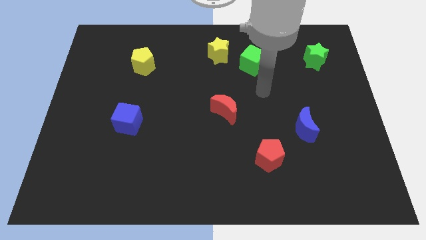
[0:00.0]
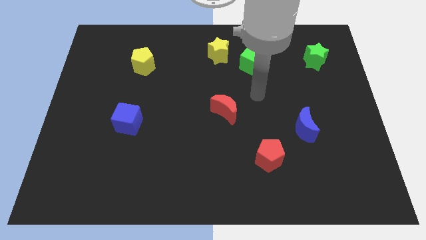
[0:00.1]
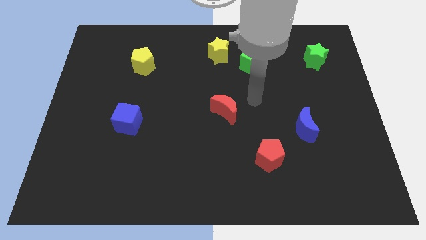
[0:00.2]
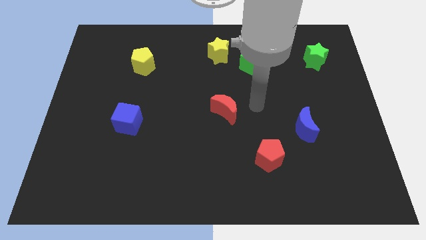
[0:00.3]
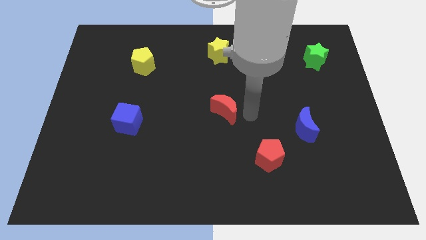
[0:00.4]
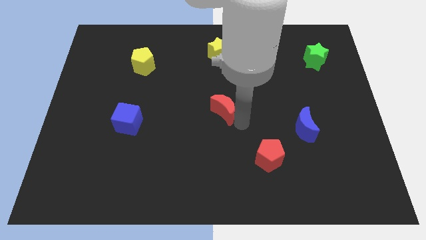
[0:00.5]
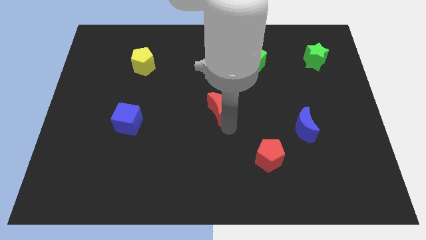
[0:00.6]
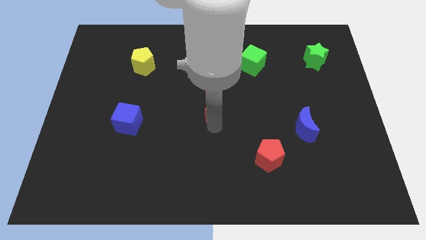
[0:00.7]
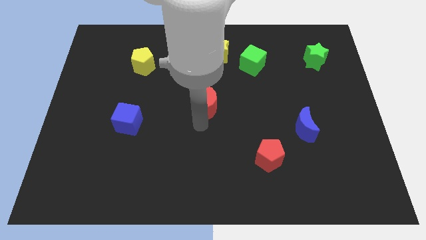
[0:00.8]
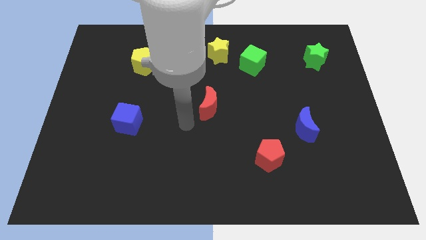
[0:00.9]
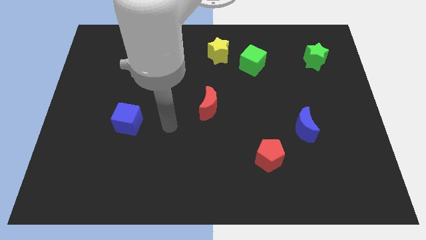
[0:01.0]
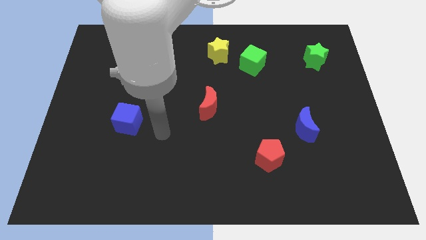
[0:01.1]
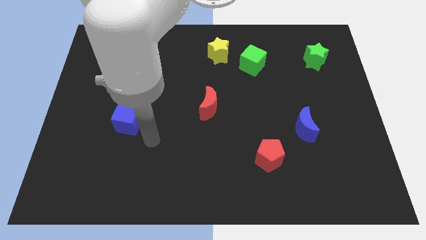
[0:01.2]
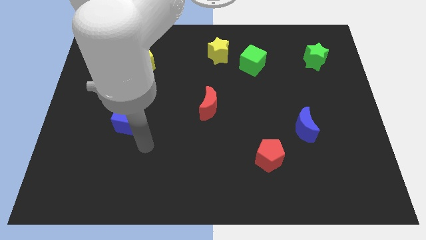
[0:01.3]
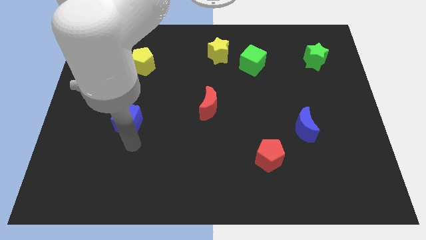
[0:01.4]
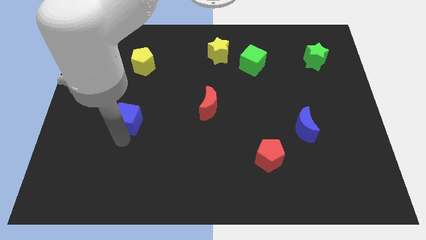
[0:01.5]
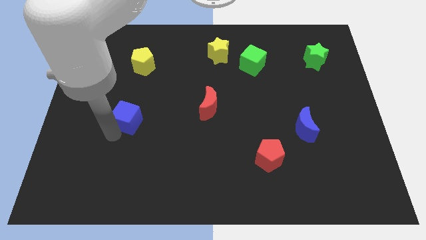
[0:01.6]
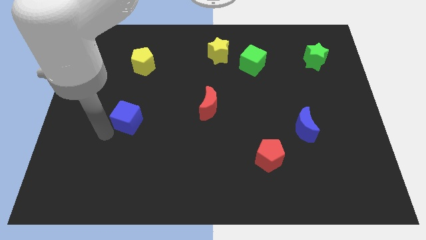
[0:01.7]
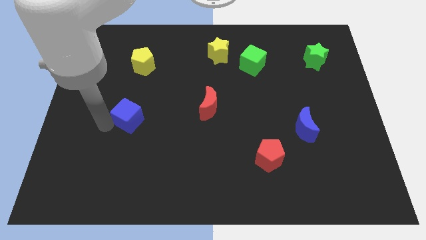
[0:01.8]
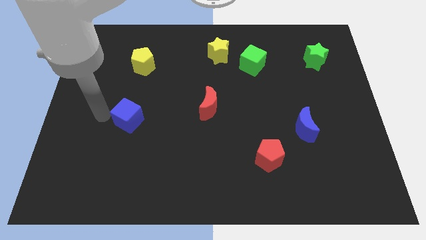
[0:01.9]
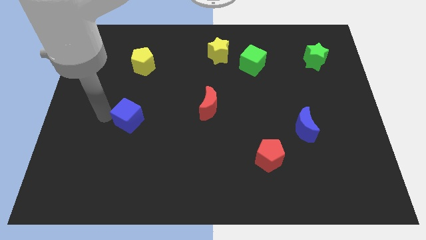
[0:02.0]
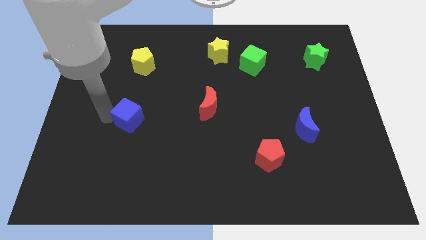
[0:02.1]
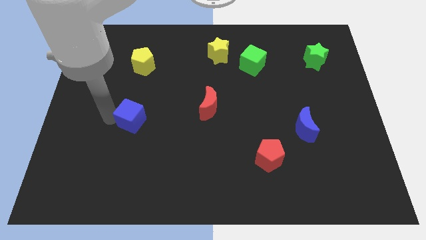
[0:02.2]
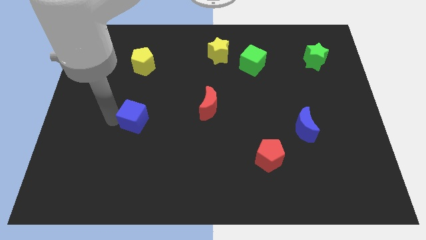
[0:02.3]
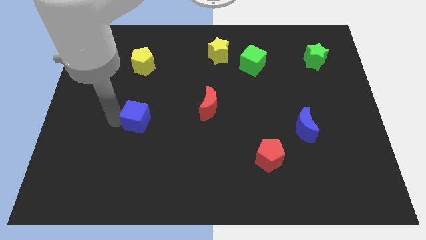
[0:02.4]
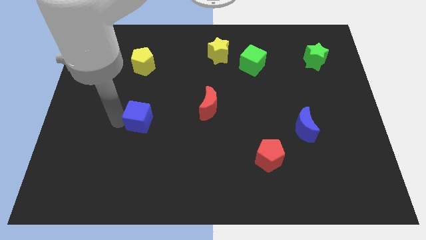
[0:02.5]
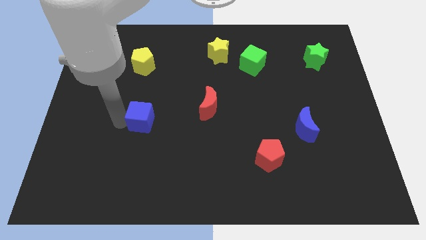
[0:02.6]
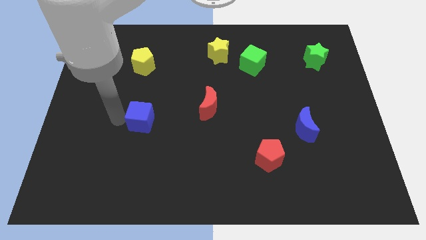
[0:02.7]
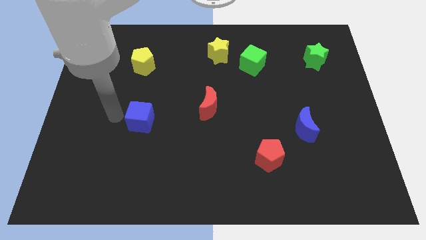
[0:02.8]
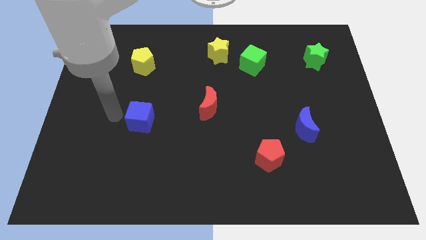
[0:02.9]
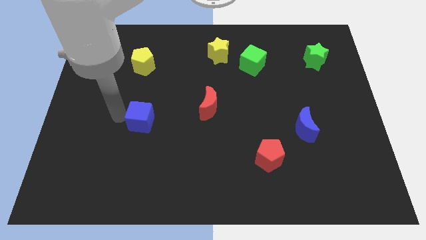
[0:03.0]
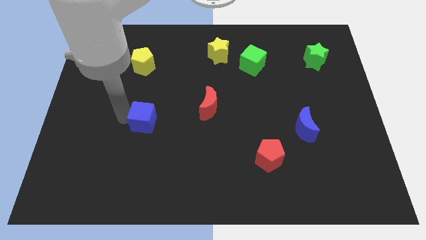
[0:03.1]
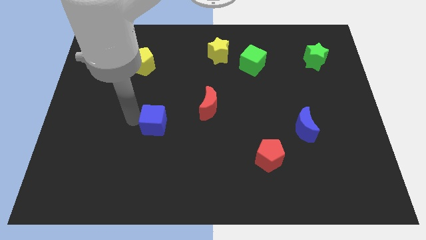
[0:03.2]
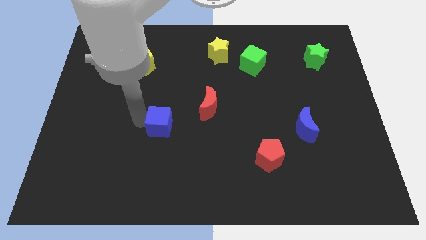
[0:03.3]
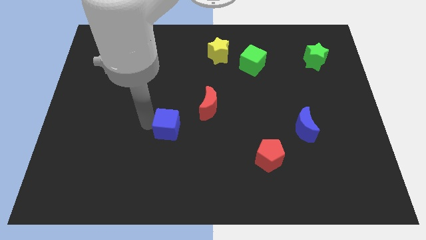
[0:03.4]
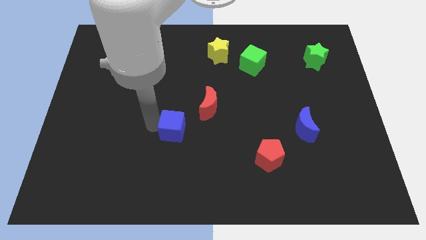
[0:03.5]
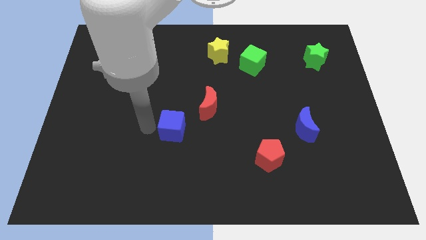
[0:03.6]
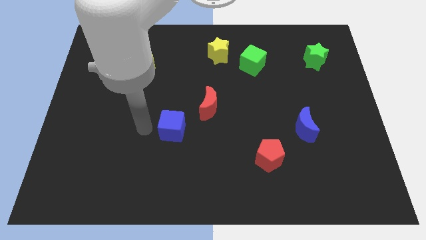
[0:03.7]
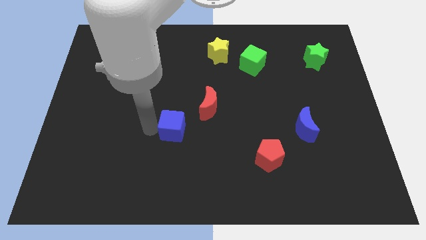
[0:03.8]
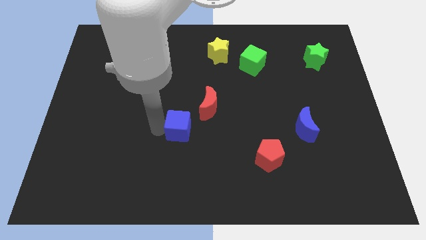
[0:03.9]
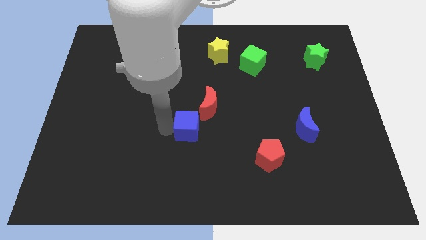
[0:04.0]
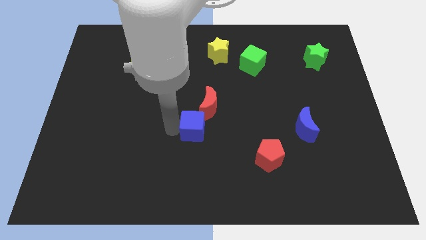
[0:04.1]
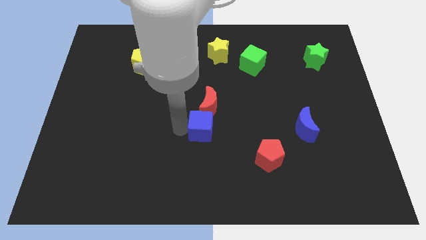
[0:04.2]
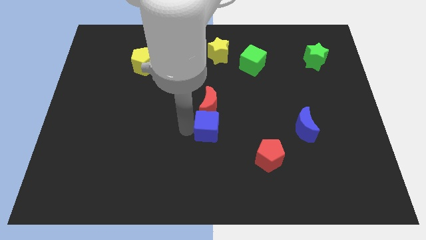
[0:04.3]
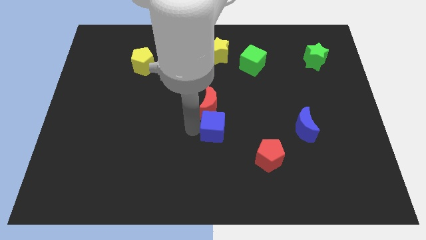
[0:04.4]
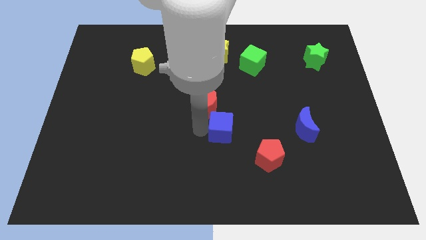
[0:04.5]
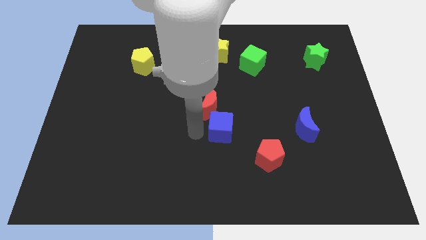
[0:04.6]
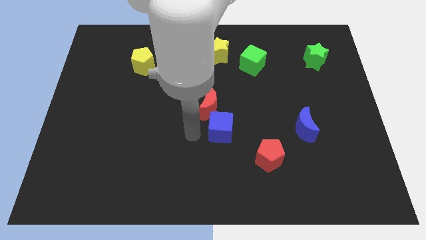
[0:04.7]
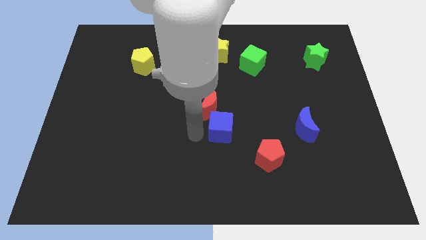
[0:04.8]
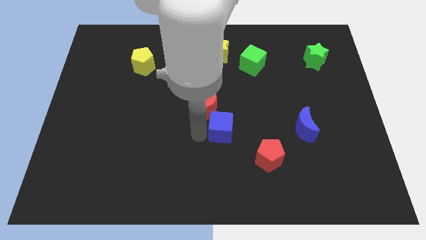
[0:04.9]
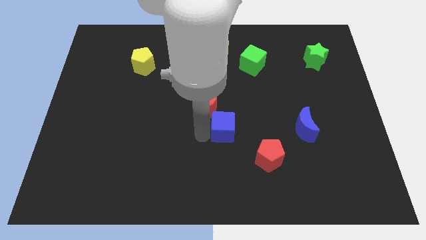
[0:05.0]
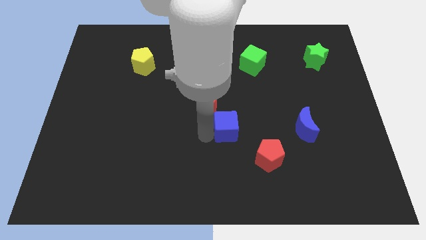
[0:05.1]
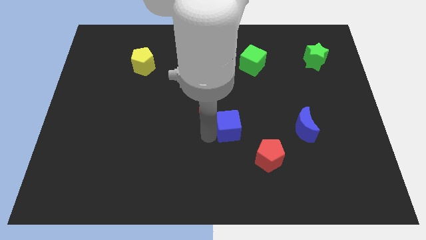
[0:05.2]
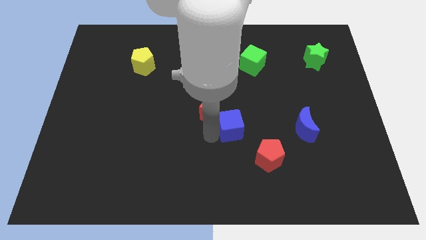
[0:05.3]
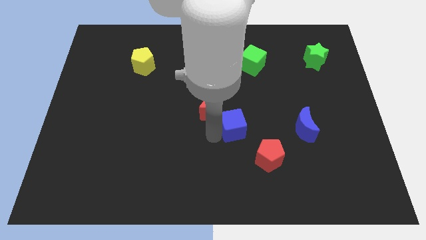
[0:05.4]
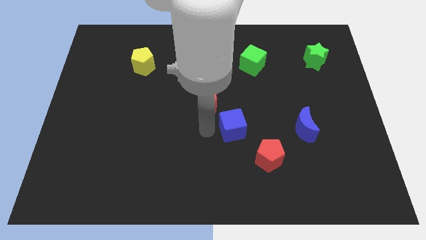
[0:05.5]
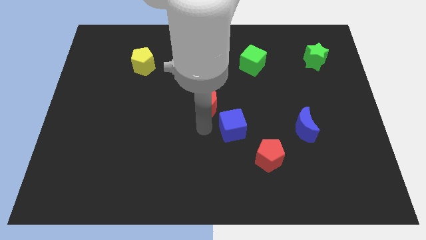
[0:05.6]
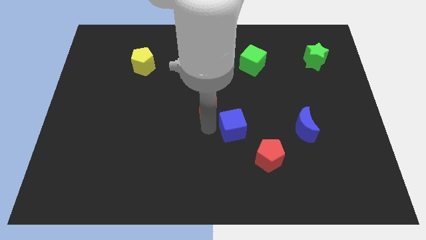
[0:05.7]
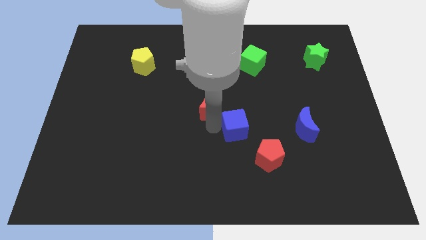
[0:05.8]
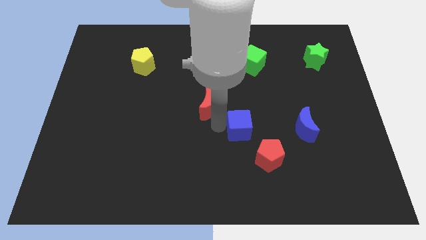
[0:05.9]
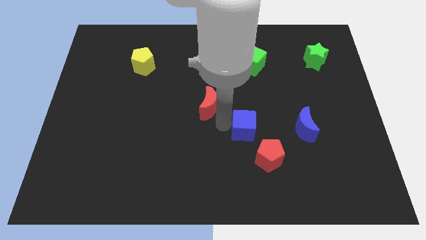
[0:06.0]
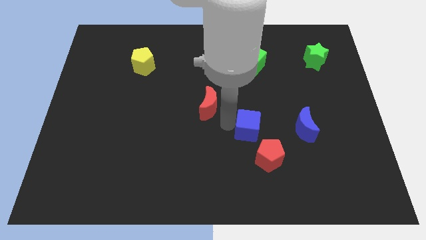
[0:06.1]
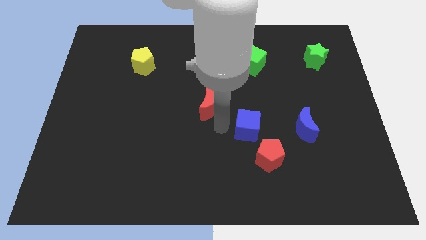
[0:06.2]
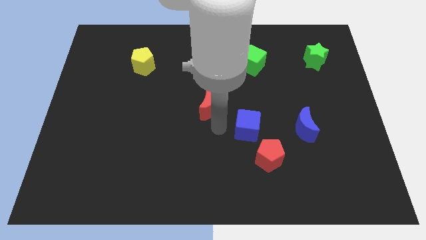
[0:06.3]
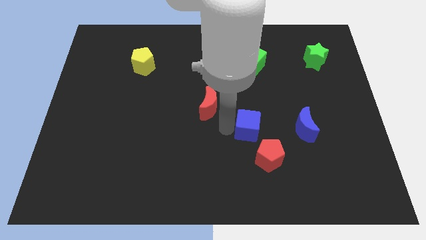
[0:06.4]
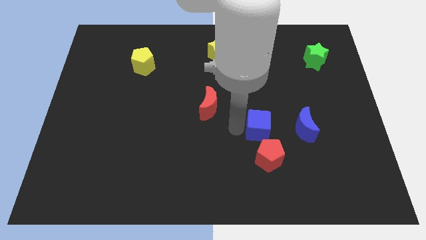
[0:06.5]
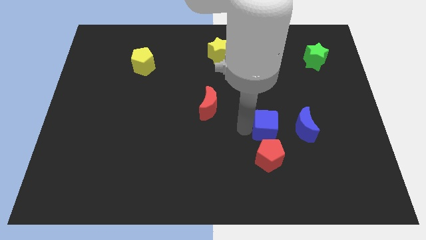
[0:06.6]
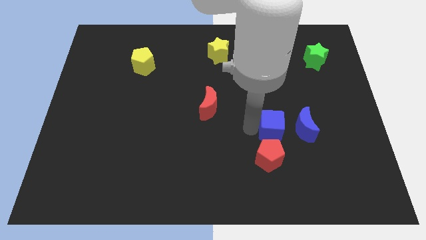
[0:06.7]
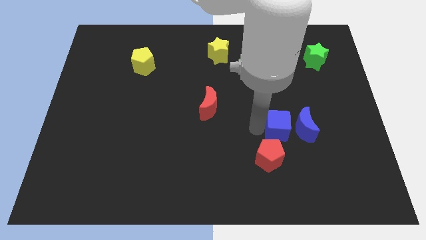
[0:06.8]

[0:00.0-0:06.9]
move the blue cube close to the blue moon
